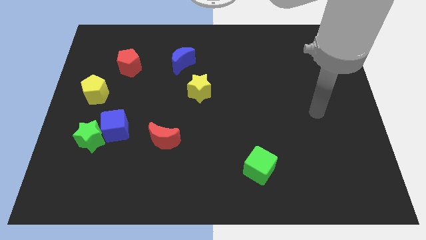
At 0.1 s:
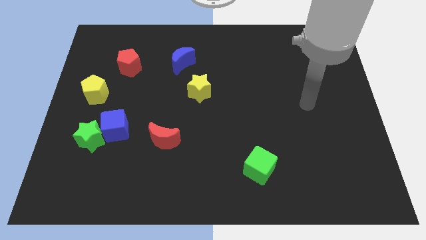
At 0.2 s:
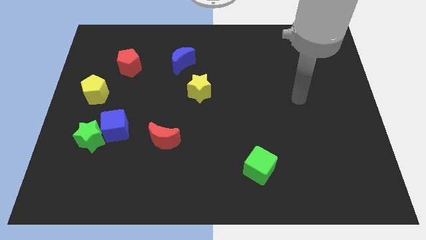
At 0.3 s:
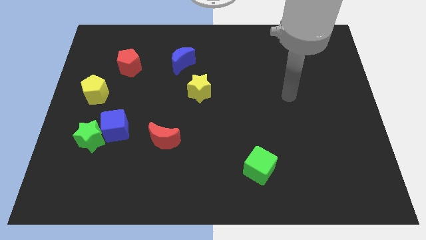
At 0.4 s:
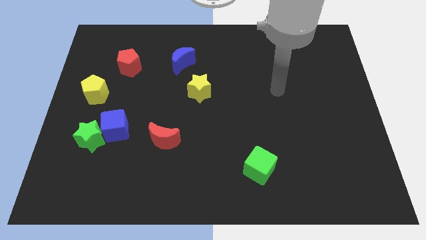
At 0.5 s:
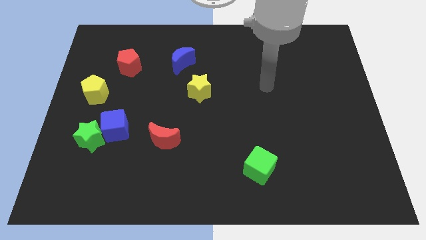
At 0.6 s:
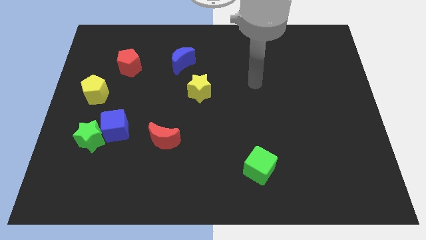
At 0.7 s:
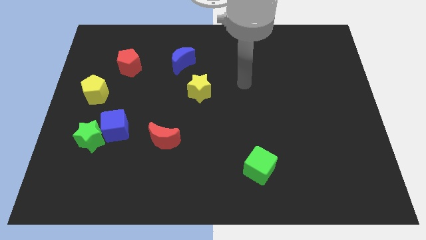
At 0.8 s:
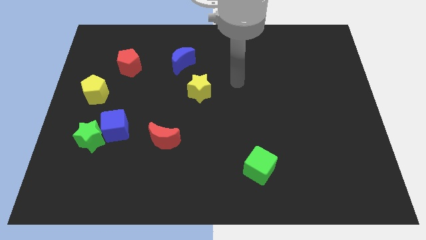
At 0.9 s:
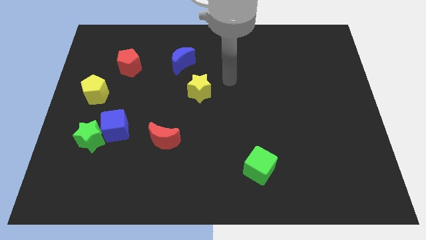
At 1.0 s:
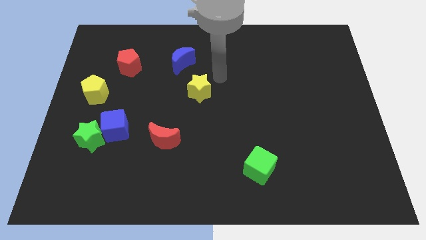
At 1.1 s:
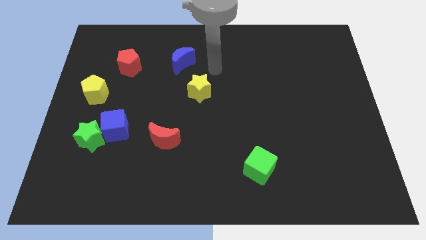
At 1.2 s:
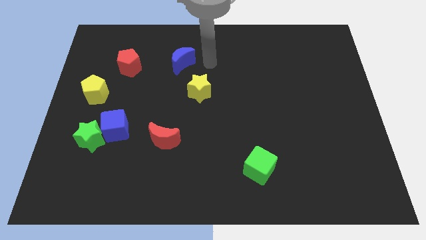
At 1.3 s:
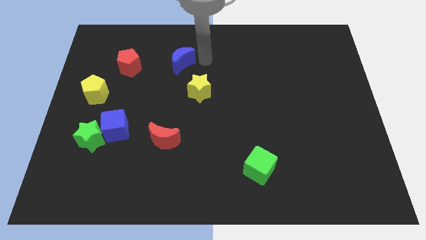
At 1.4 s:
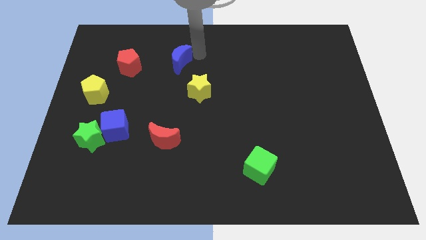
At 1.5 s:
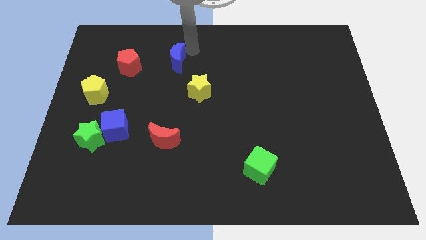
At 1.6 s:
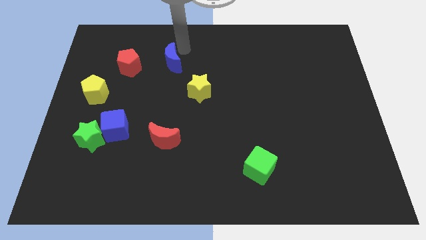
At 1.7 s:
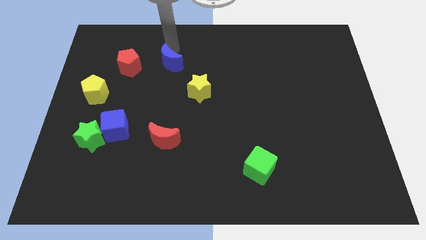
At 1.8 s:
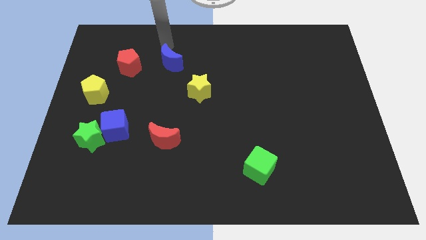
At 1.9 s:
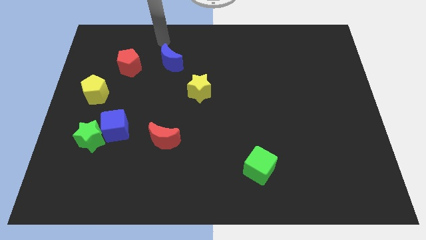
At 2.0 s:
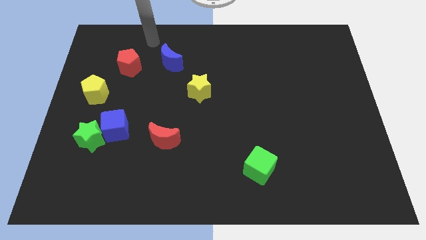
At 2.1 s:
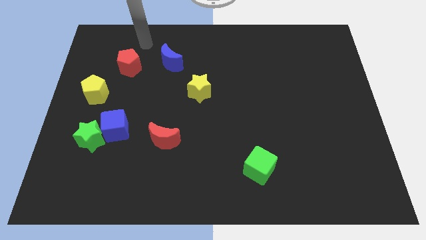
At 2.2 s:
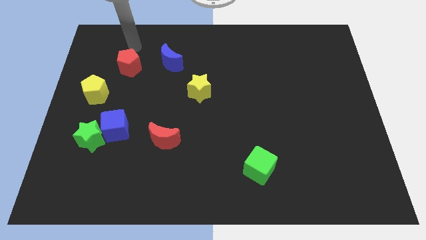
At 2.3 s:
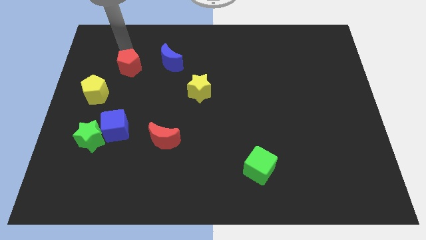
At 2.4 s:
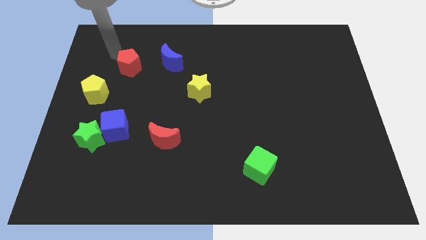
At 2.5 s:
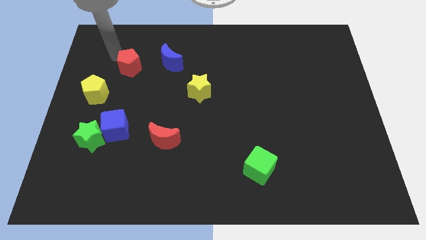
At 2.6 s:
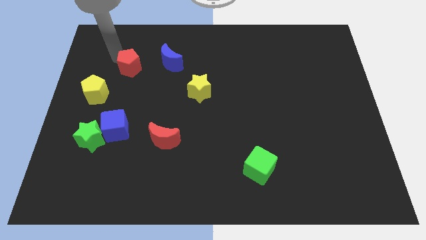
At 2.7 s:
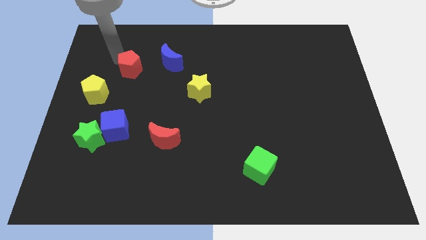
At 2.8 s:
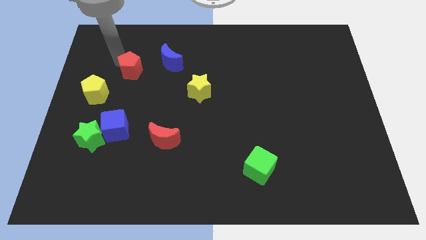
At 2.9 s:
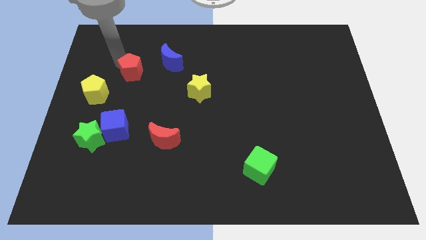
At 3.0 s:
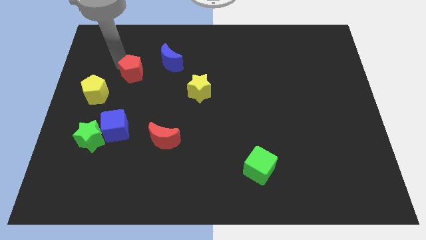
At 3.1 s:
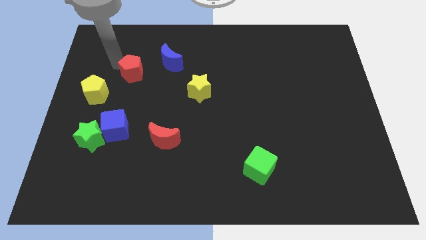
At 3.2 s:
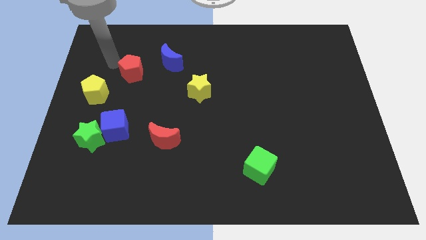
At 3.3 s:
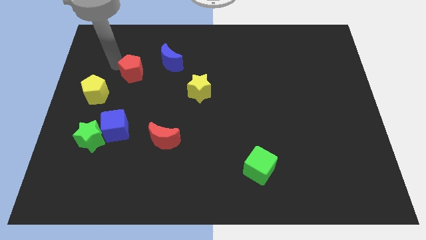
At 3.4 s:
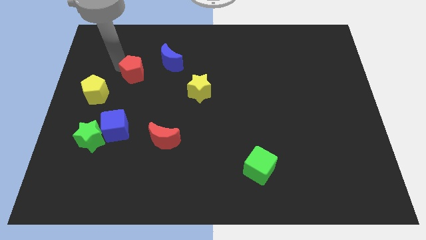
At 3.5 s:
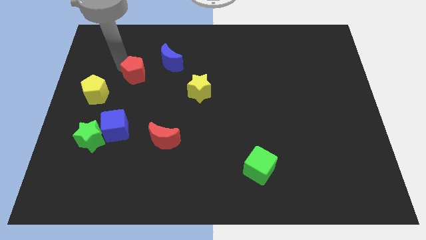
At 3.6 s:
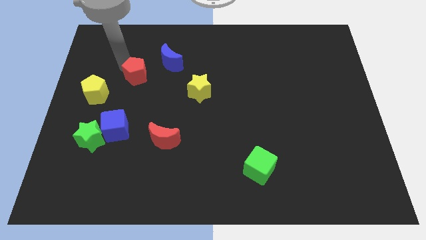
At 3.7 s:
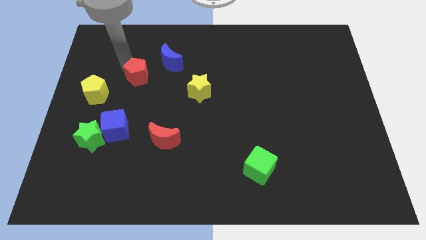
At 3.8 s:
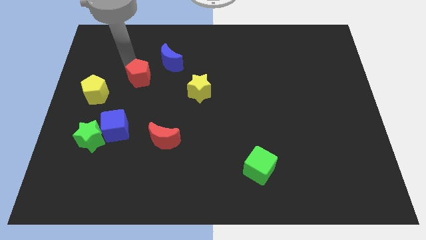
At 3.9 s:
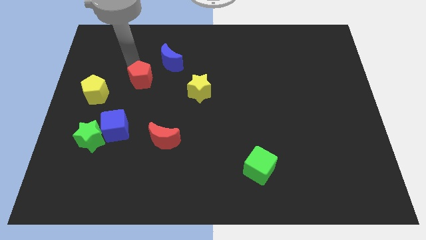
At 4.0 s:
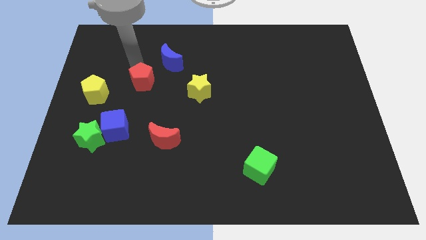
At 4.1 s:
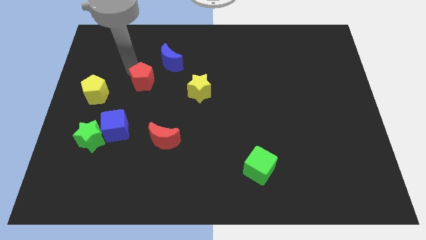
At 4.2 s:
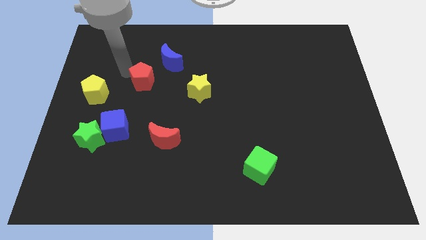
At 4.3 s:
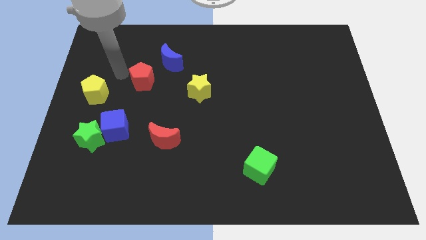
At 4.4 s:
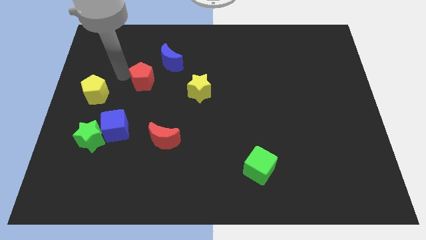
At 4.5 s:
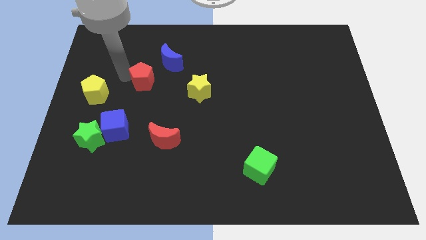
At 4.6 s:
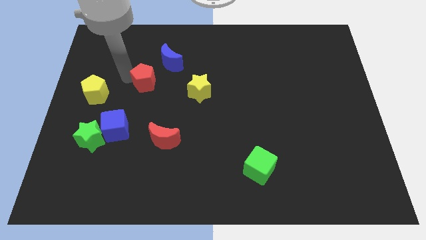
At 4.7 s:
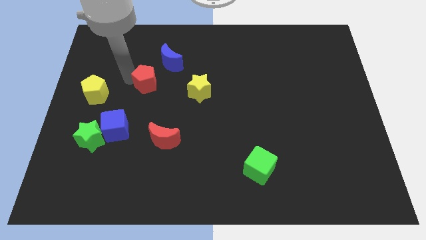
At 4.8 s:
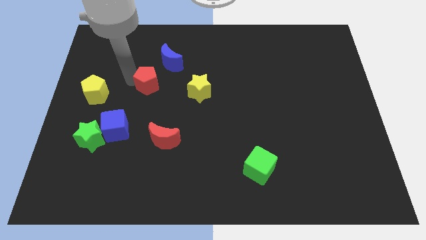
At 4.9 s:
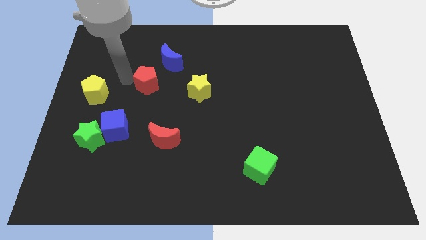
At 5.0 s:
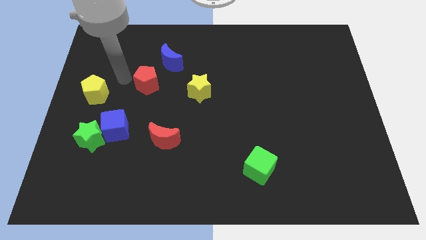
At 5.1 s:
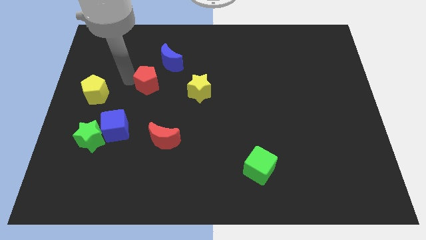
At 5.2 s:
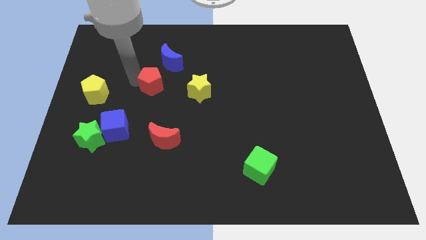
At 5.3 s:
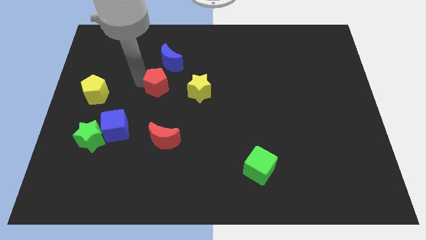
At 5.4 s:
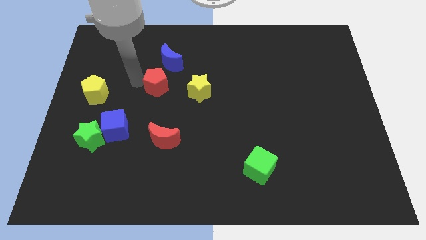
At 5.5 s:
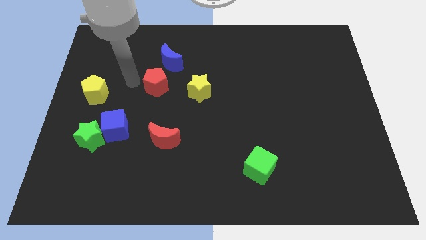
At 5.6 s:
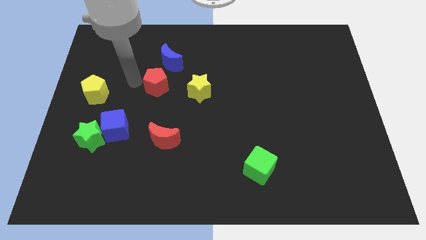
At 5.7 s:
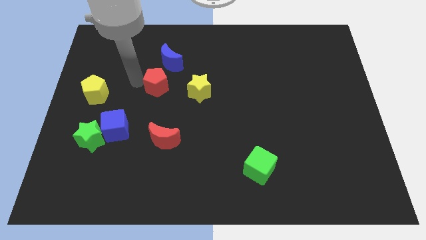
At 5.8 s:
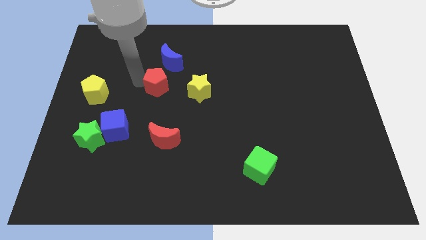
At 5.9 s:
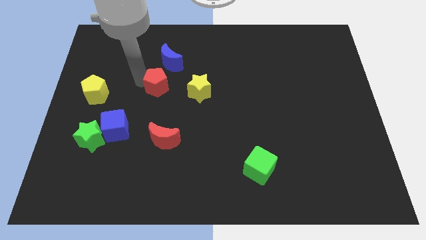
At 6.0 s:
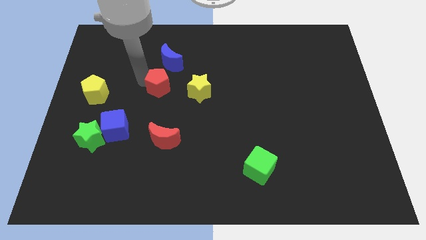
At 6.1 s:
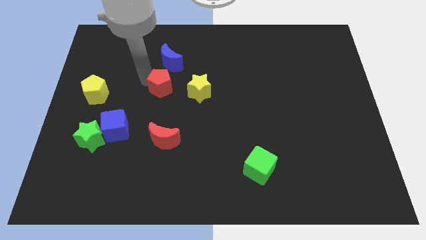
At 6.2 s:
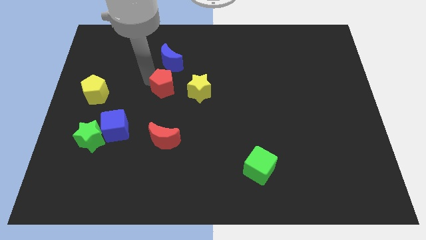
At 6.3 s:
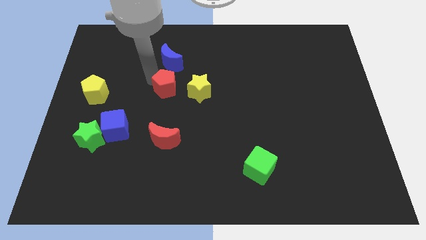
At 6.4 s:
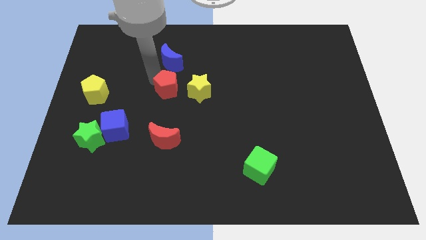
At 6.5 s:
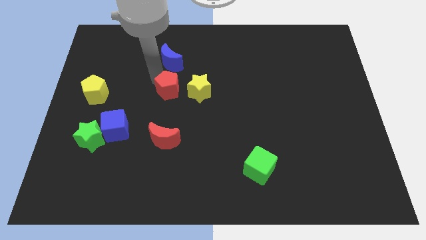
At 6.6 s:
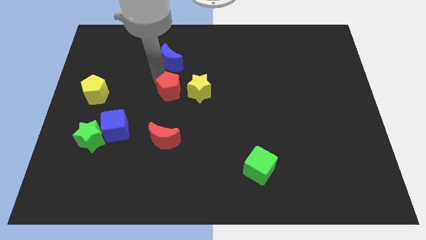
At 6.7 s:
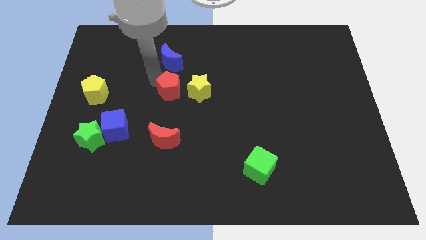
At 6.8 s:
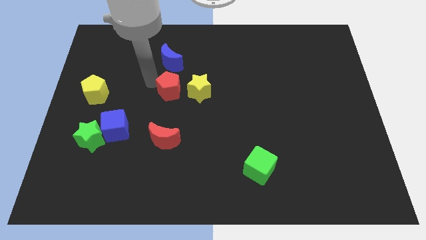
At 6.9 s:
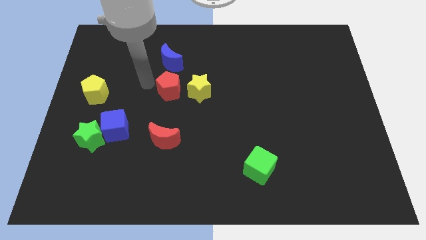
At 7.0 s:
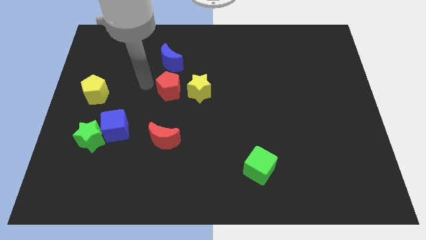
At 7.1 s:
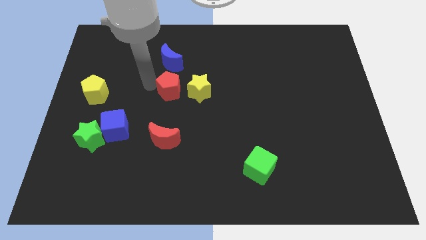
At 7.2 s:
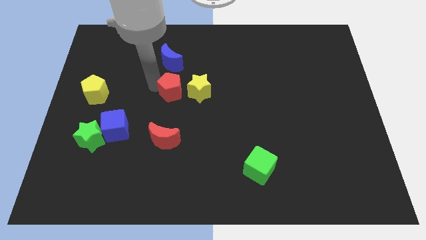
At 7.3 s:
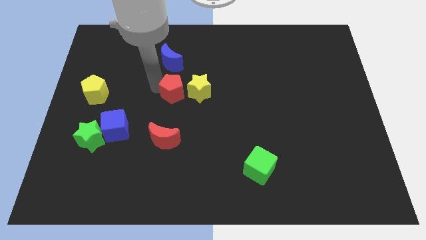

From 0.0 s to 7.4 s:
push the red pentagon towards the yellow star
